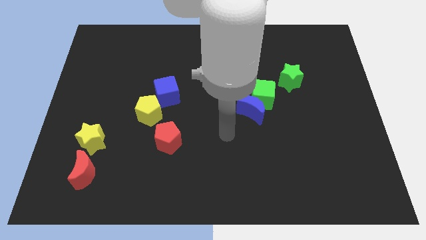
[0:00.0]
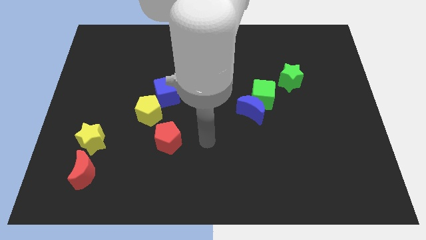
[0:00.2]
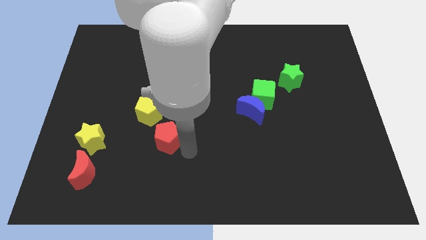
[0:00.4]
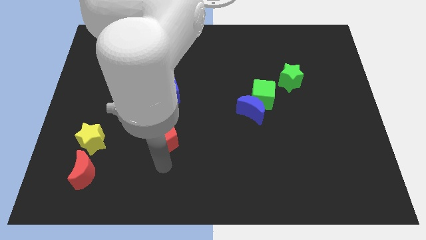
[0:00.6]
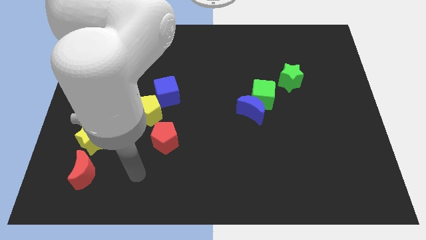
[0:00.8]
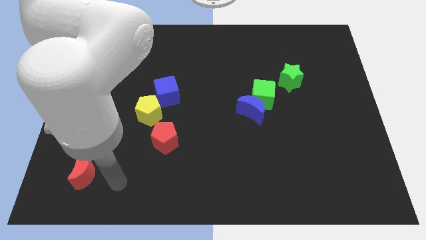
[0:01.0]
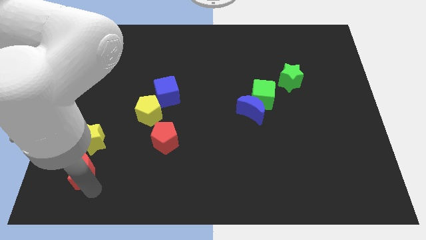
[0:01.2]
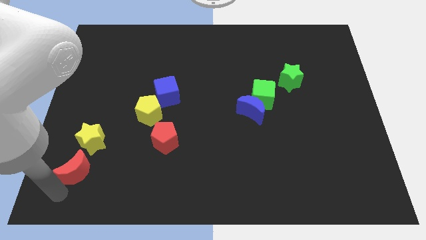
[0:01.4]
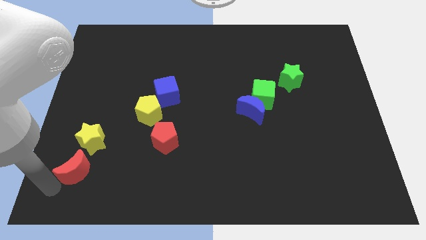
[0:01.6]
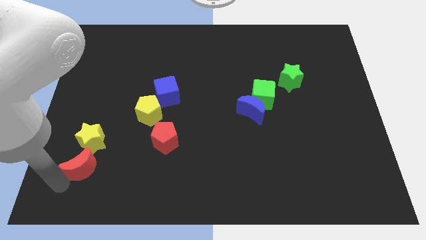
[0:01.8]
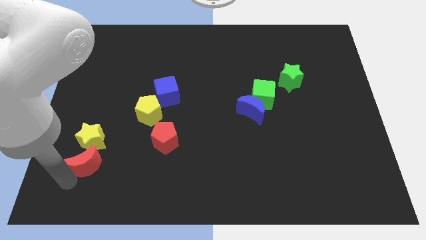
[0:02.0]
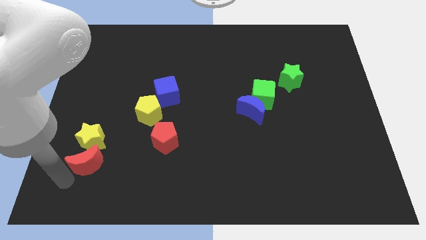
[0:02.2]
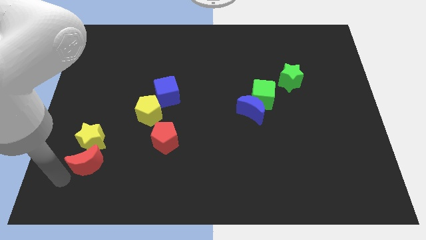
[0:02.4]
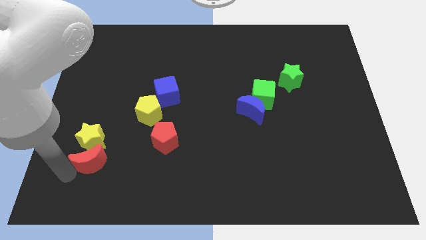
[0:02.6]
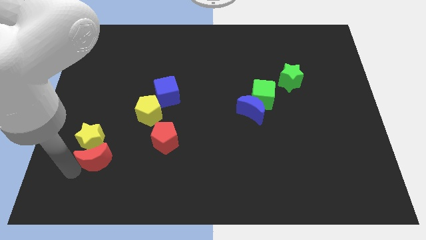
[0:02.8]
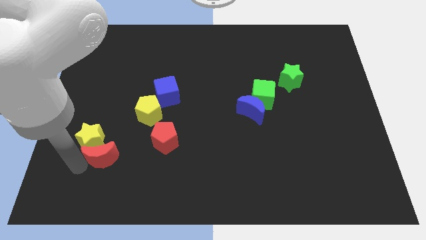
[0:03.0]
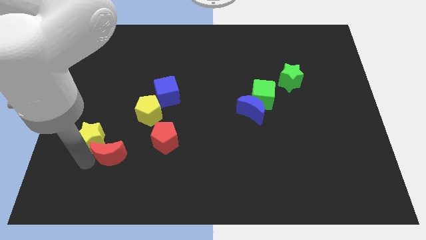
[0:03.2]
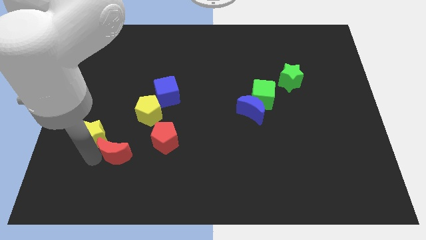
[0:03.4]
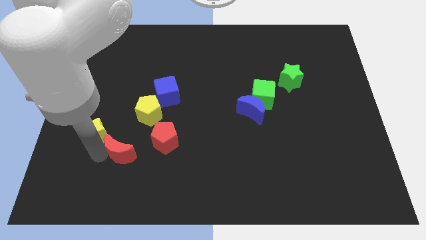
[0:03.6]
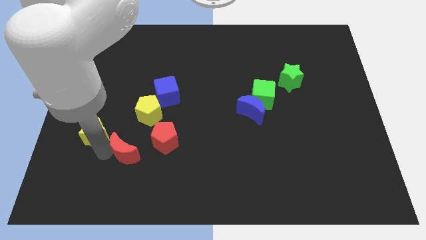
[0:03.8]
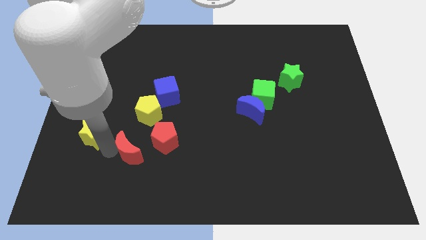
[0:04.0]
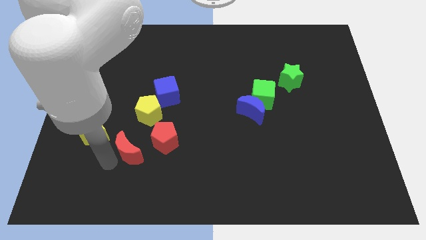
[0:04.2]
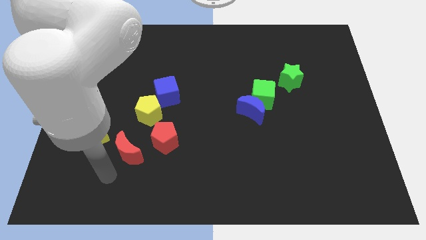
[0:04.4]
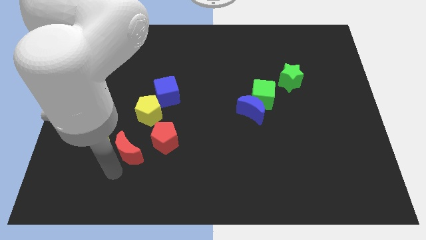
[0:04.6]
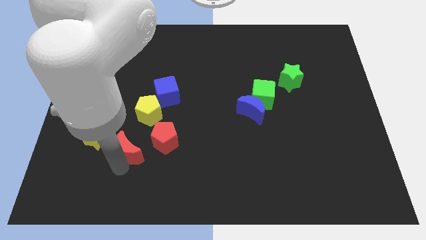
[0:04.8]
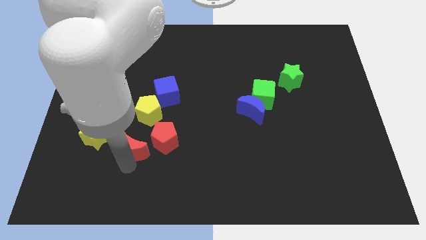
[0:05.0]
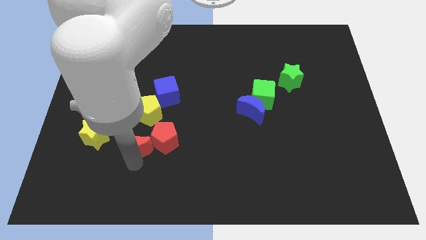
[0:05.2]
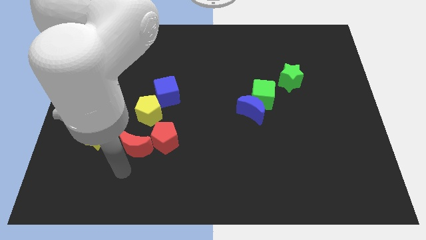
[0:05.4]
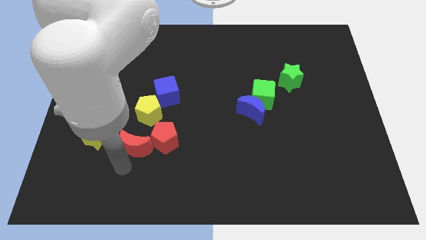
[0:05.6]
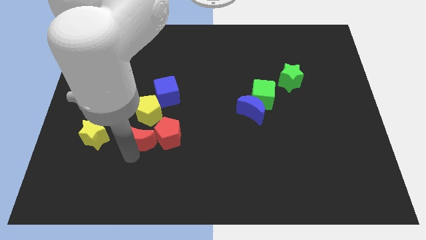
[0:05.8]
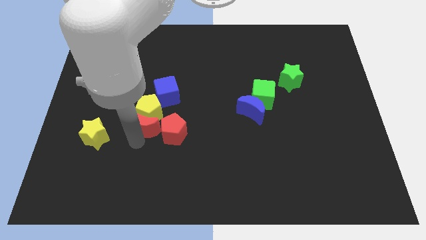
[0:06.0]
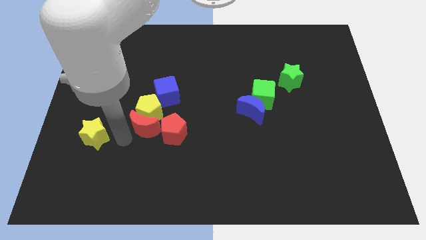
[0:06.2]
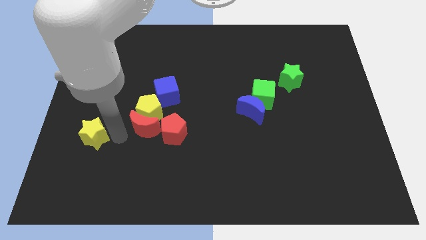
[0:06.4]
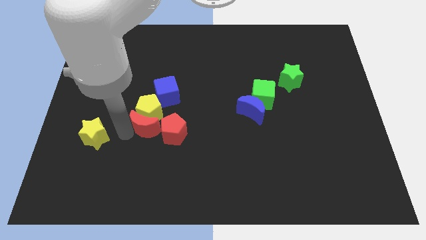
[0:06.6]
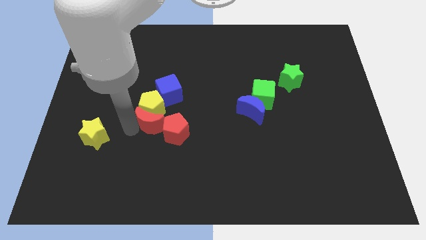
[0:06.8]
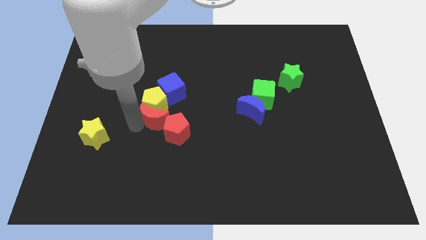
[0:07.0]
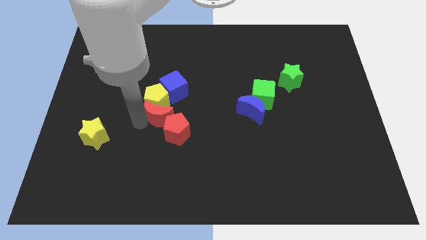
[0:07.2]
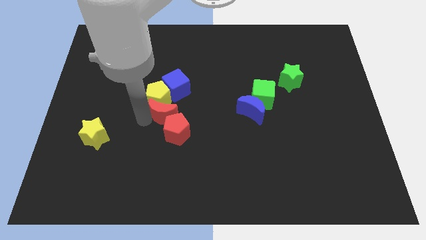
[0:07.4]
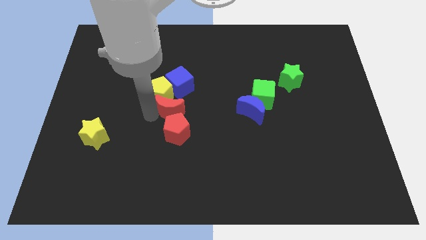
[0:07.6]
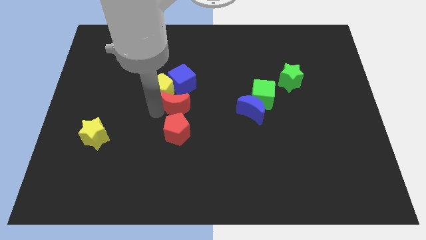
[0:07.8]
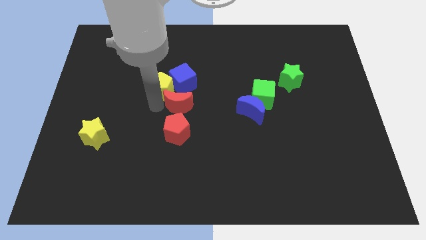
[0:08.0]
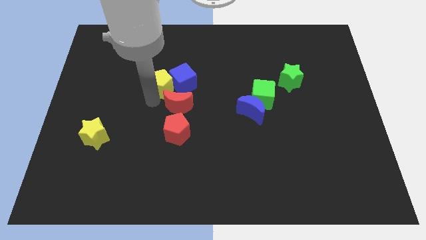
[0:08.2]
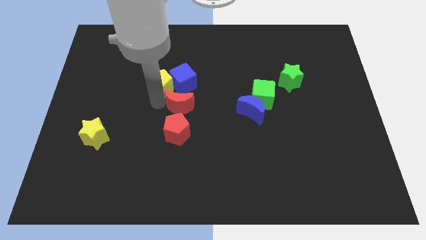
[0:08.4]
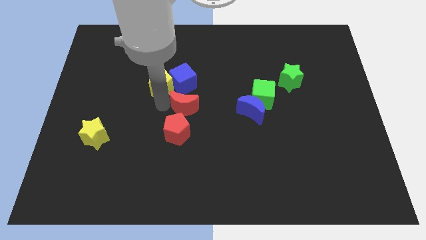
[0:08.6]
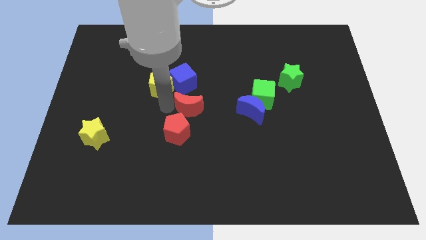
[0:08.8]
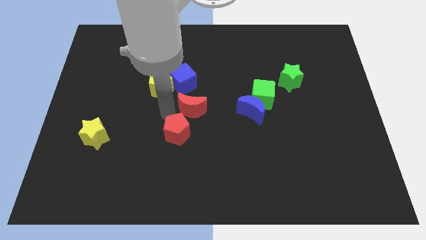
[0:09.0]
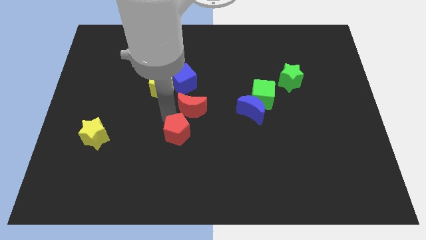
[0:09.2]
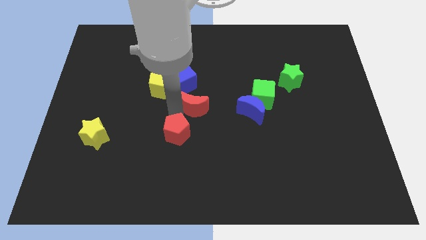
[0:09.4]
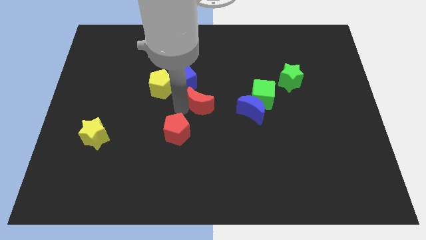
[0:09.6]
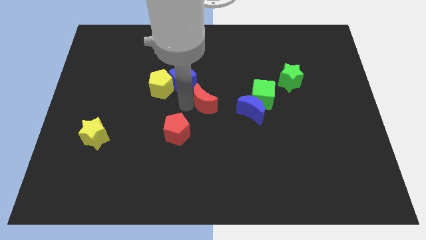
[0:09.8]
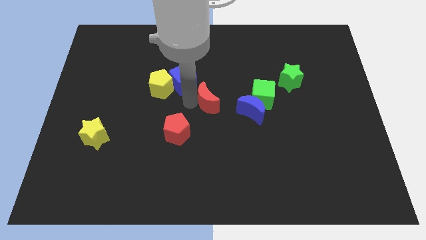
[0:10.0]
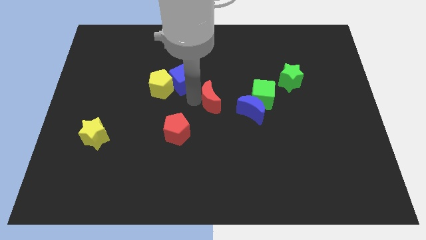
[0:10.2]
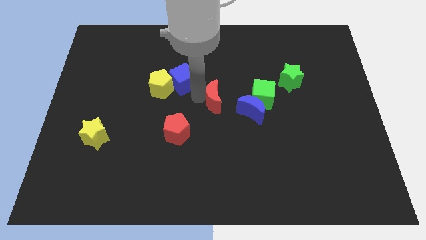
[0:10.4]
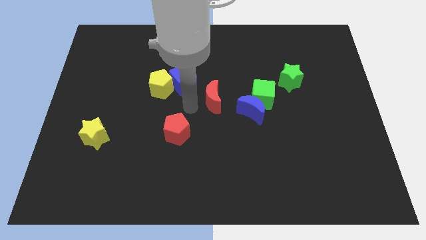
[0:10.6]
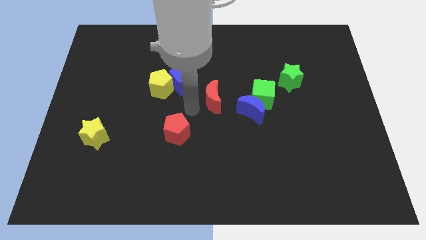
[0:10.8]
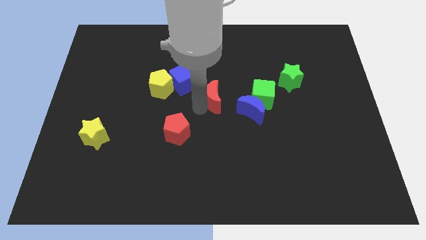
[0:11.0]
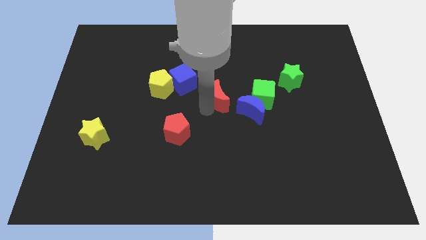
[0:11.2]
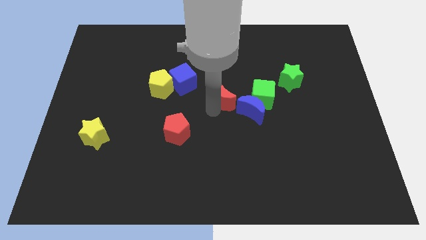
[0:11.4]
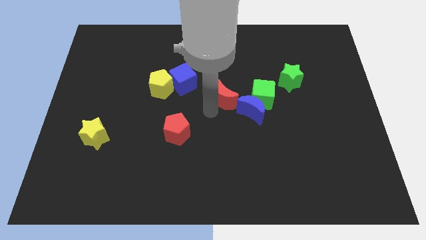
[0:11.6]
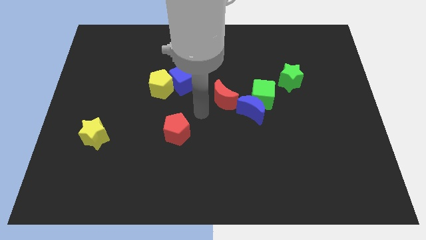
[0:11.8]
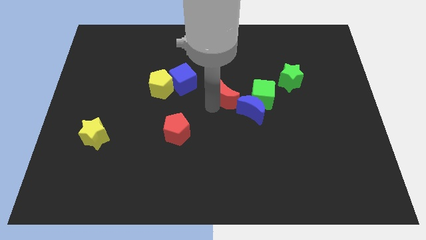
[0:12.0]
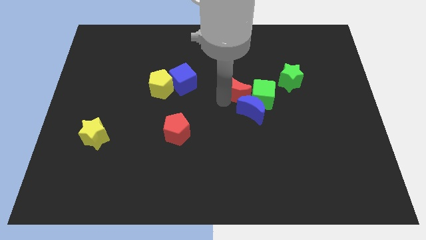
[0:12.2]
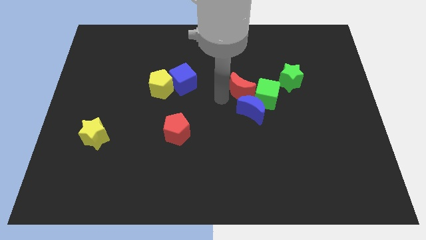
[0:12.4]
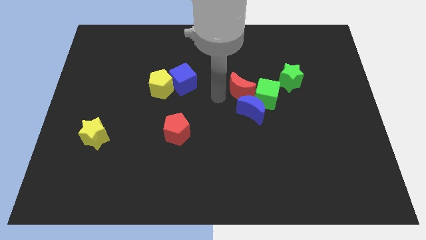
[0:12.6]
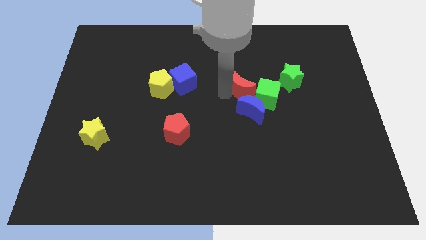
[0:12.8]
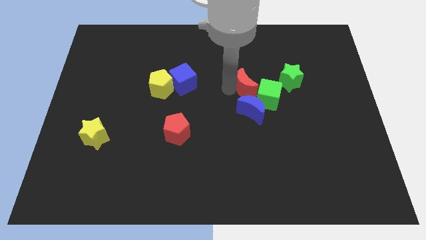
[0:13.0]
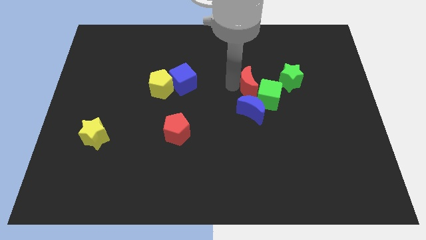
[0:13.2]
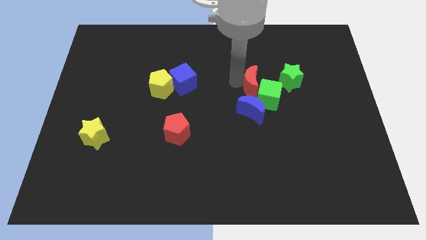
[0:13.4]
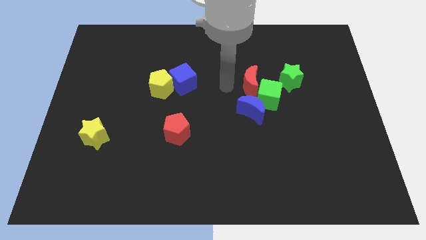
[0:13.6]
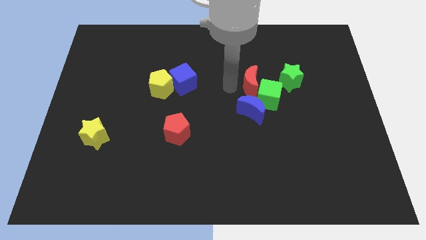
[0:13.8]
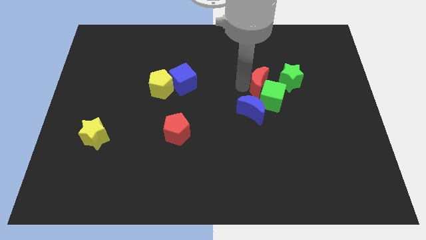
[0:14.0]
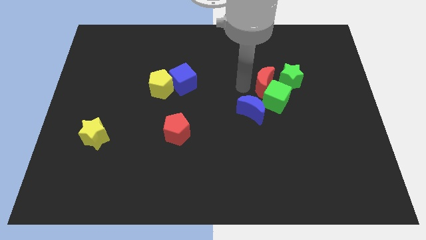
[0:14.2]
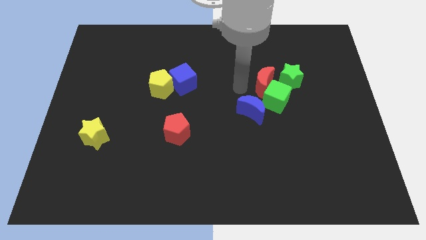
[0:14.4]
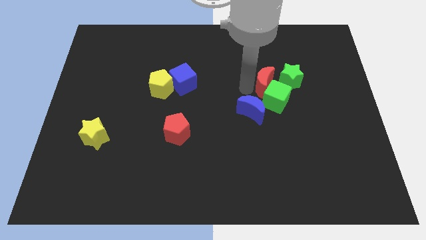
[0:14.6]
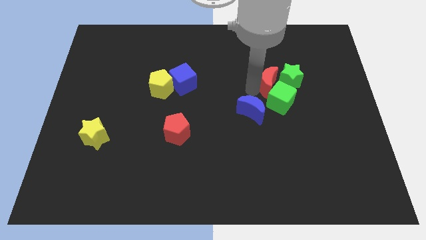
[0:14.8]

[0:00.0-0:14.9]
put the red moon to the green star
